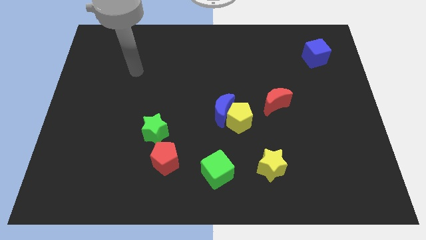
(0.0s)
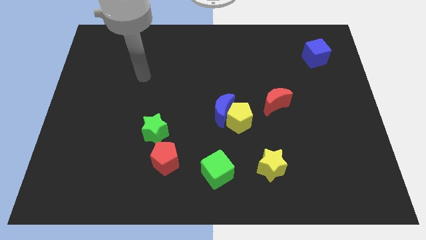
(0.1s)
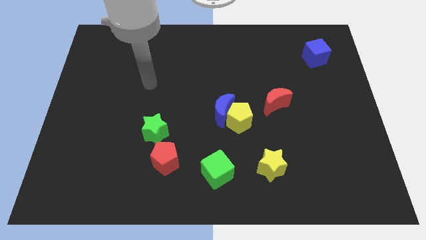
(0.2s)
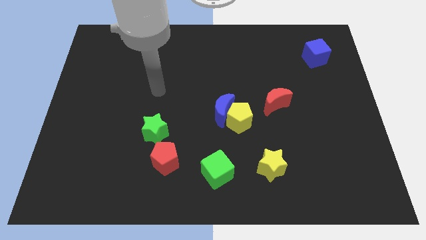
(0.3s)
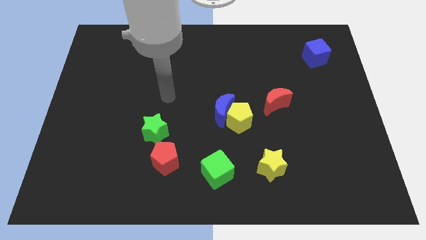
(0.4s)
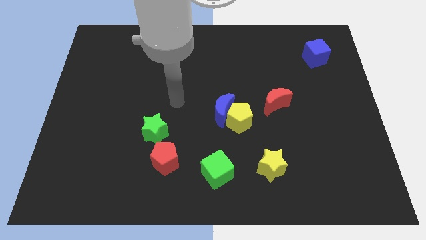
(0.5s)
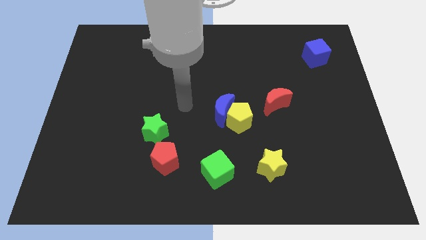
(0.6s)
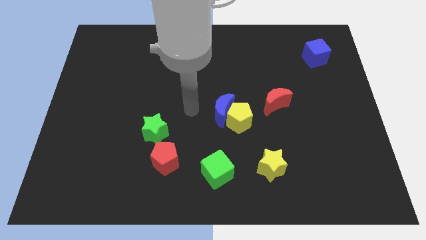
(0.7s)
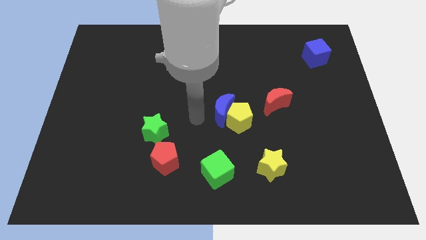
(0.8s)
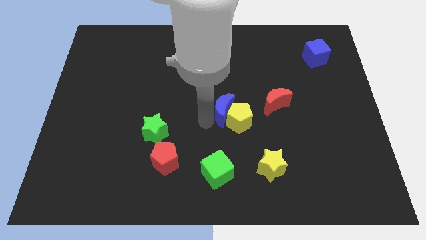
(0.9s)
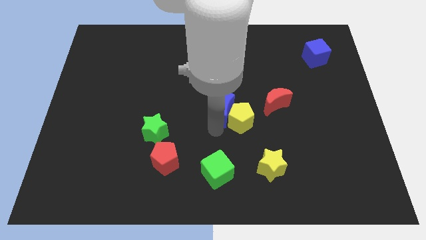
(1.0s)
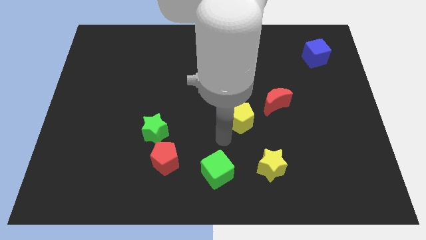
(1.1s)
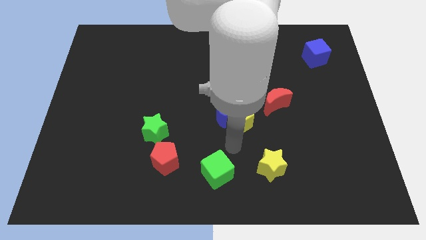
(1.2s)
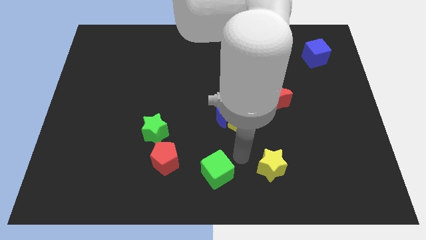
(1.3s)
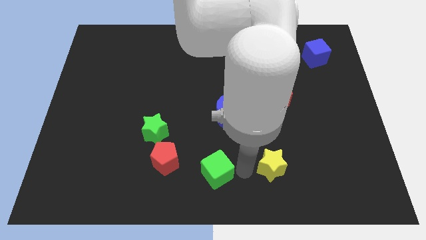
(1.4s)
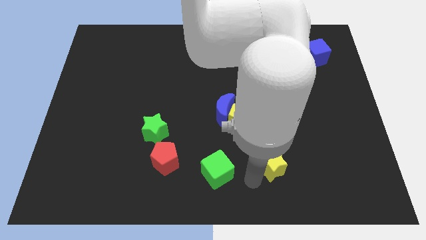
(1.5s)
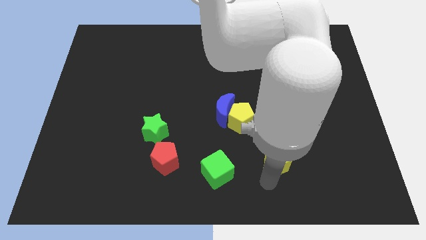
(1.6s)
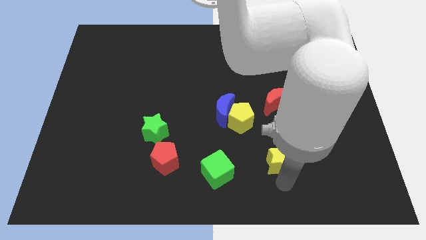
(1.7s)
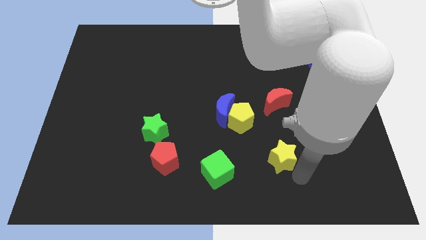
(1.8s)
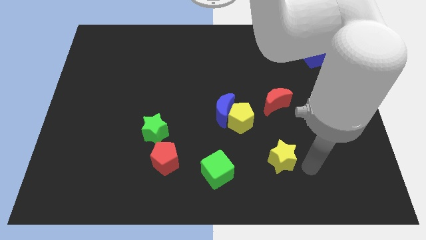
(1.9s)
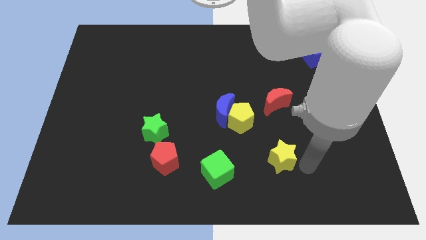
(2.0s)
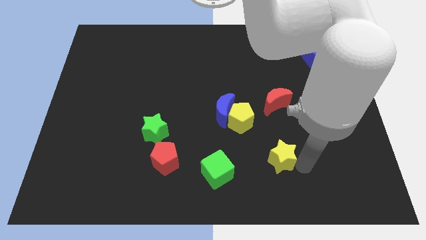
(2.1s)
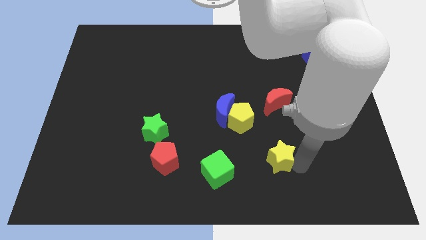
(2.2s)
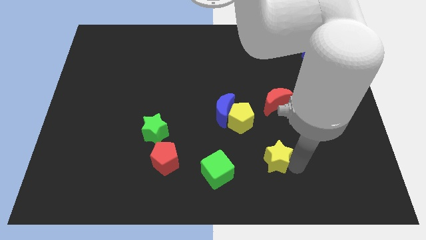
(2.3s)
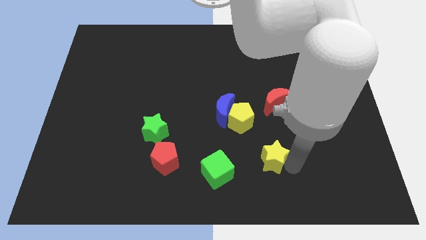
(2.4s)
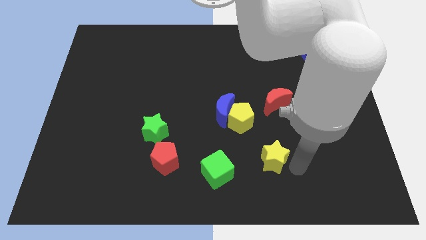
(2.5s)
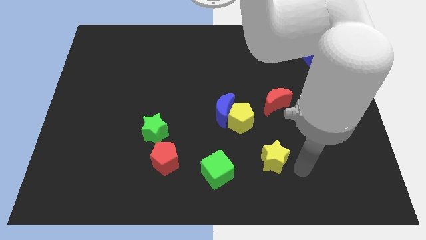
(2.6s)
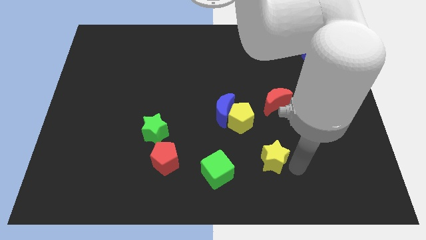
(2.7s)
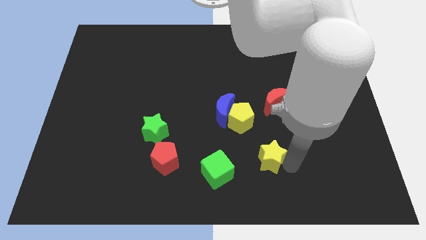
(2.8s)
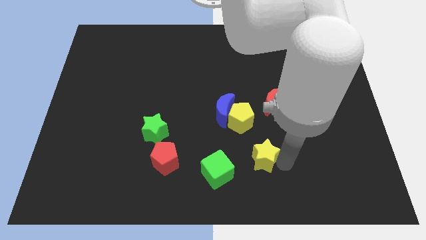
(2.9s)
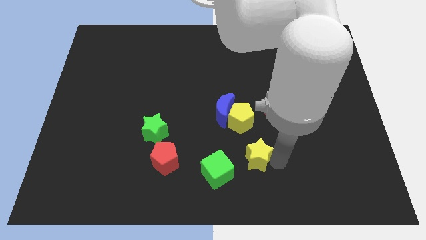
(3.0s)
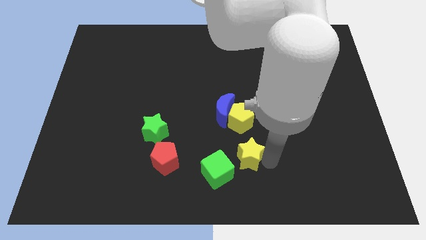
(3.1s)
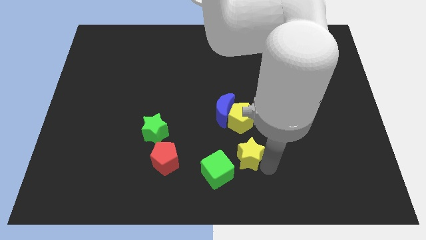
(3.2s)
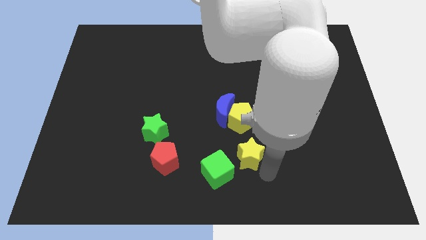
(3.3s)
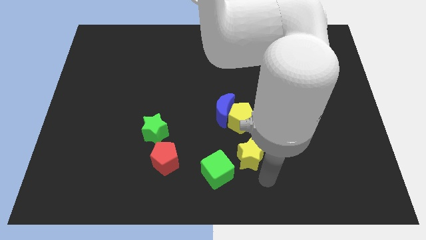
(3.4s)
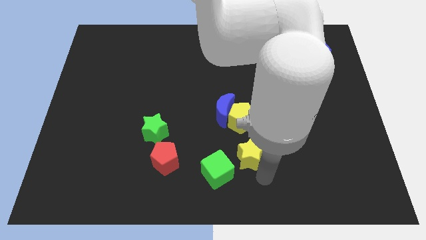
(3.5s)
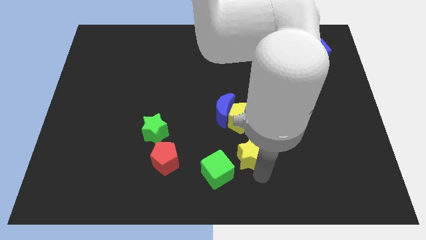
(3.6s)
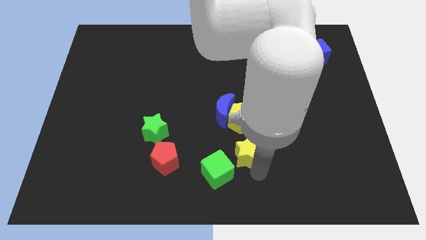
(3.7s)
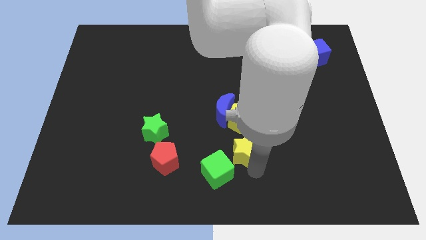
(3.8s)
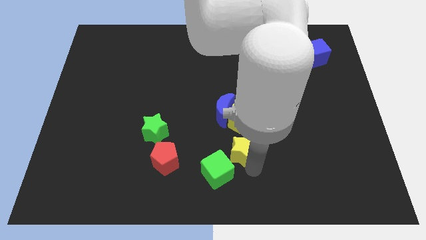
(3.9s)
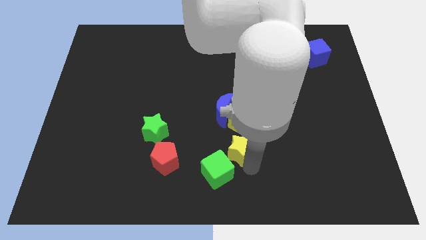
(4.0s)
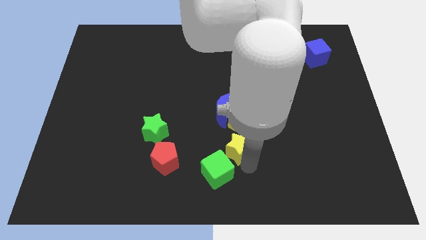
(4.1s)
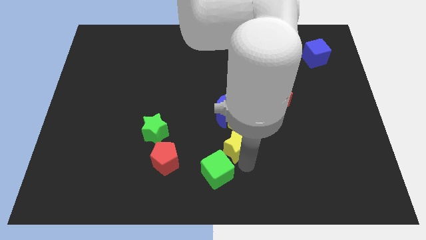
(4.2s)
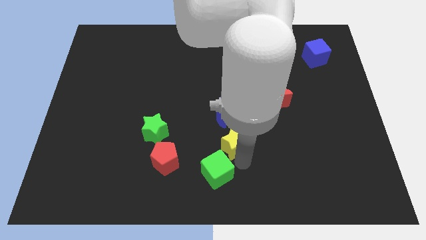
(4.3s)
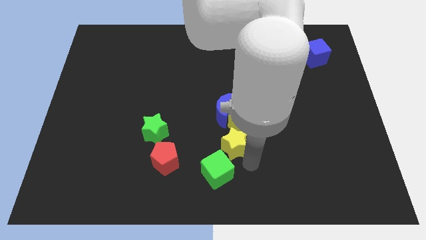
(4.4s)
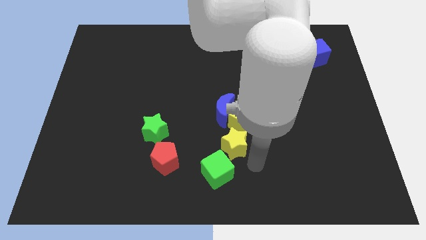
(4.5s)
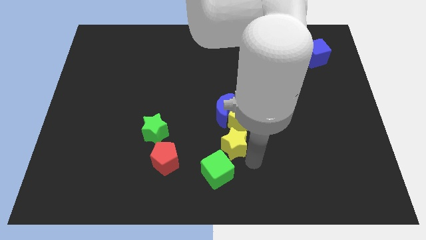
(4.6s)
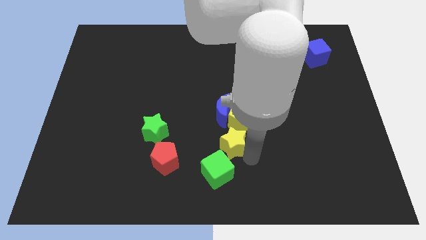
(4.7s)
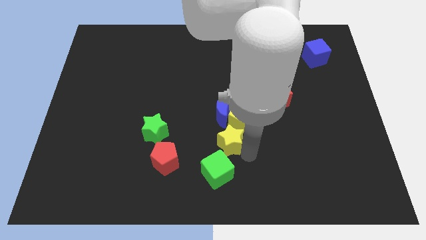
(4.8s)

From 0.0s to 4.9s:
push the yellow star to the middle of the board

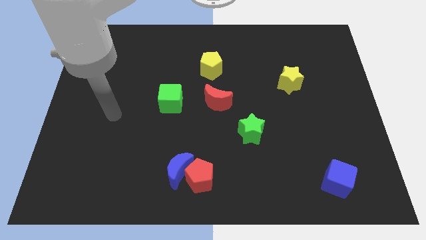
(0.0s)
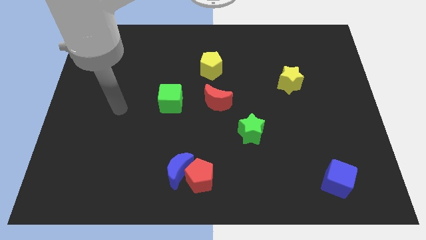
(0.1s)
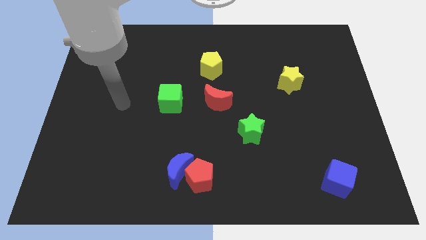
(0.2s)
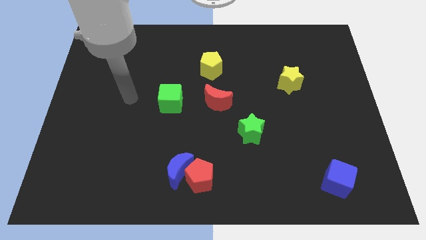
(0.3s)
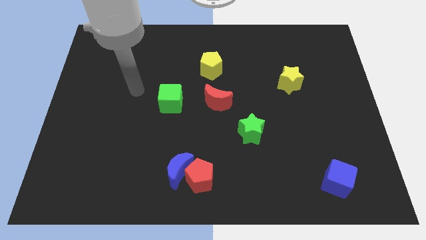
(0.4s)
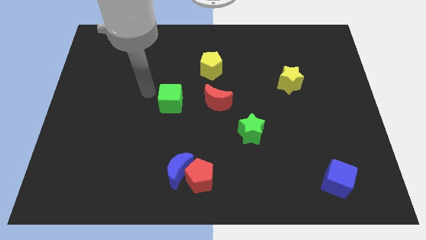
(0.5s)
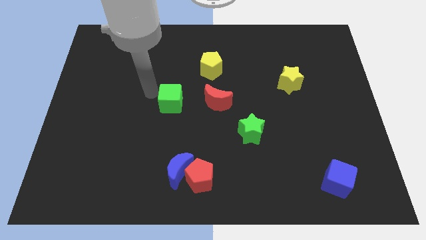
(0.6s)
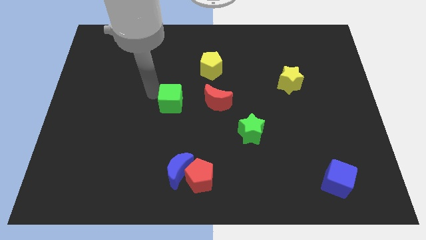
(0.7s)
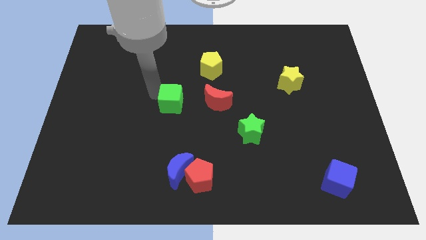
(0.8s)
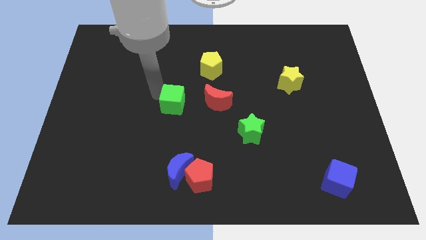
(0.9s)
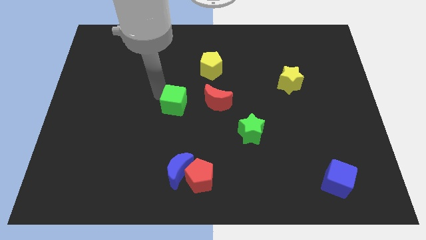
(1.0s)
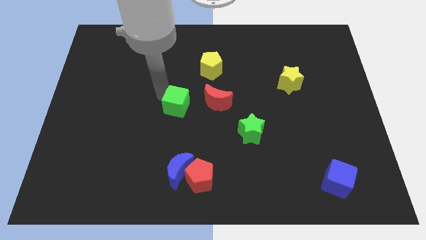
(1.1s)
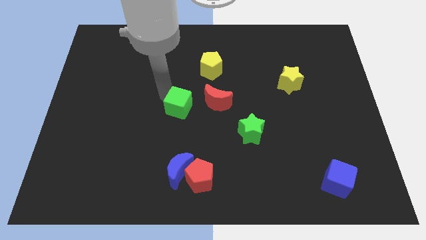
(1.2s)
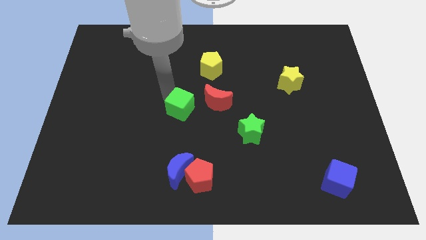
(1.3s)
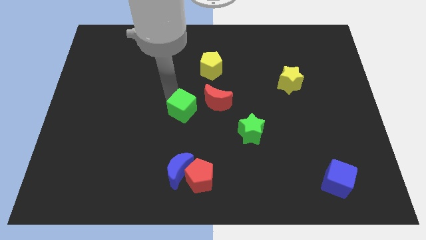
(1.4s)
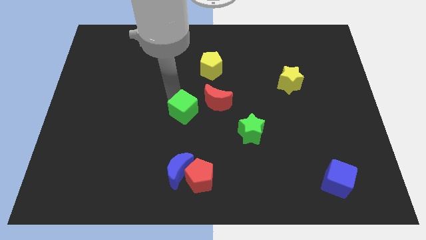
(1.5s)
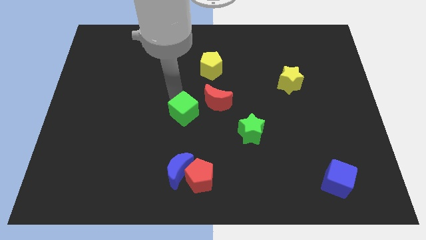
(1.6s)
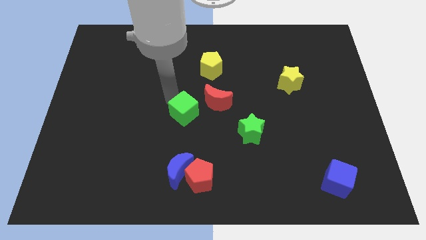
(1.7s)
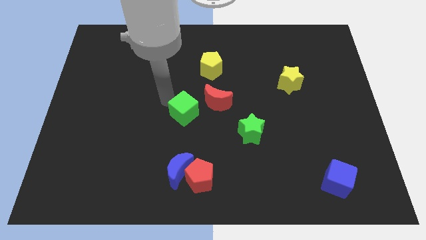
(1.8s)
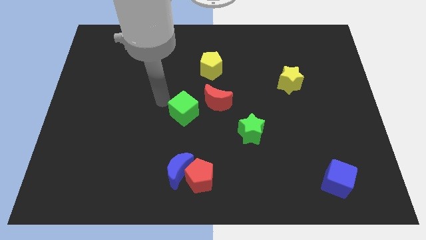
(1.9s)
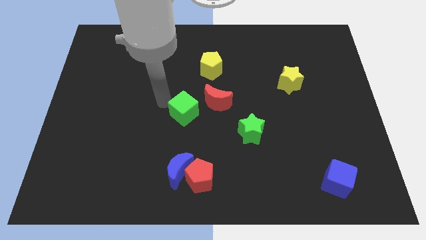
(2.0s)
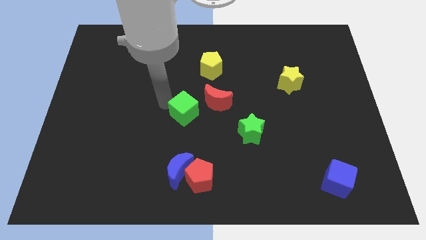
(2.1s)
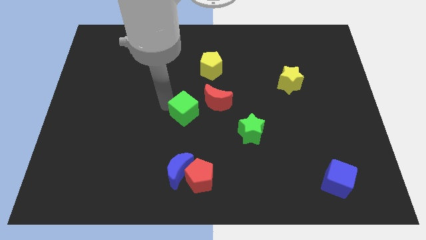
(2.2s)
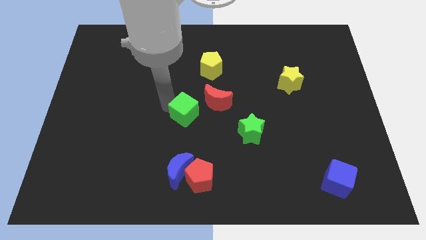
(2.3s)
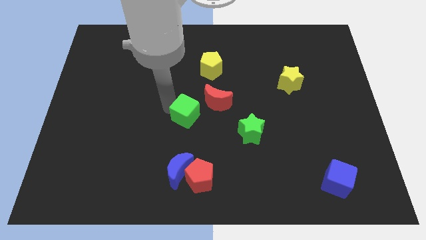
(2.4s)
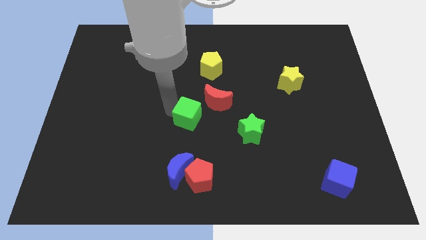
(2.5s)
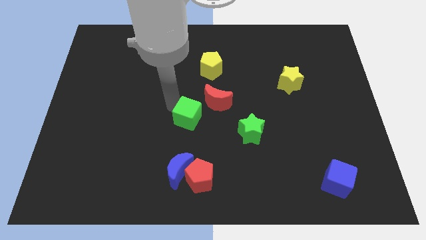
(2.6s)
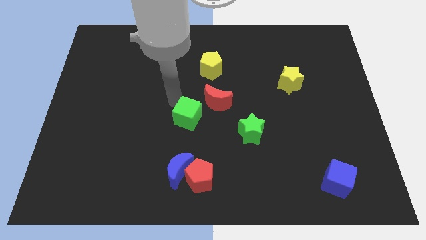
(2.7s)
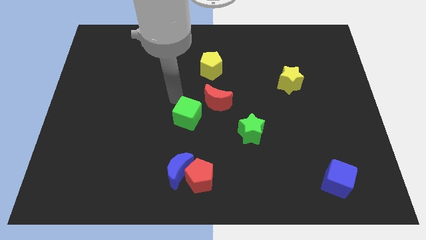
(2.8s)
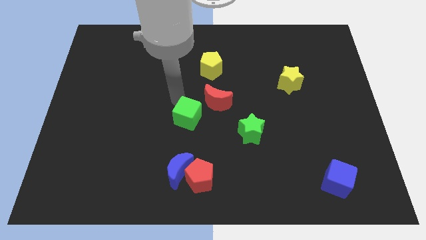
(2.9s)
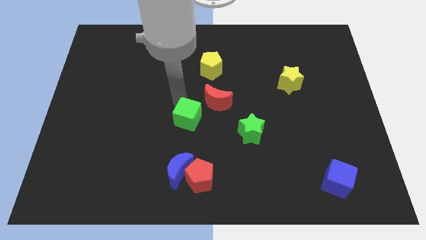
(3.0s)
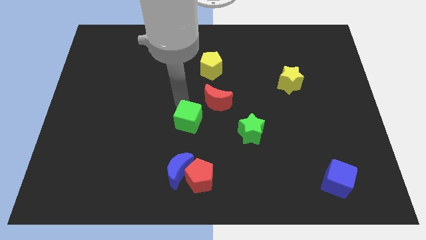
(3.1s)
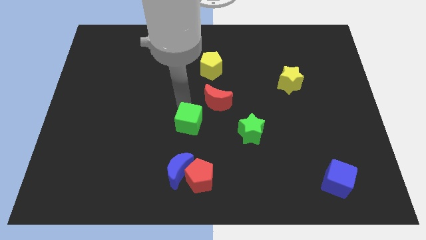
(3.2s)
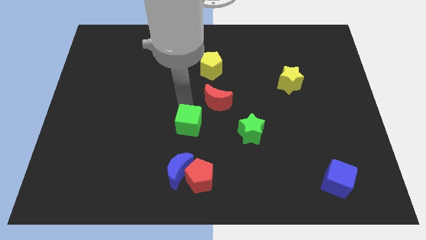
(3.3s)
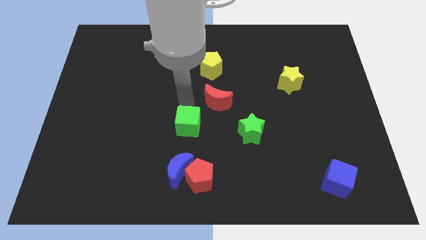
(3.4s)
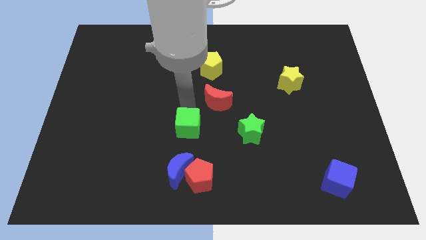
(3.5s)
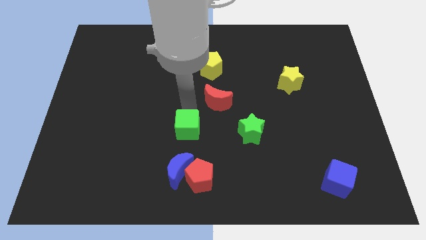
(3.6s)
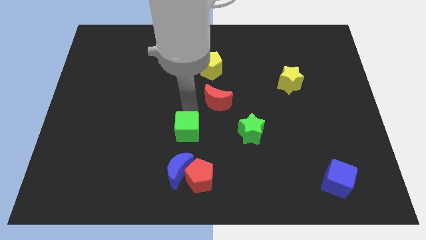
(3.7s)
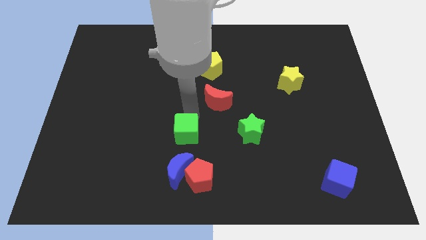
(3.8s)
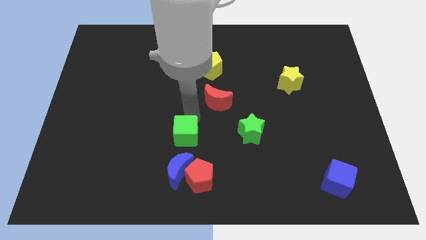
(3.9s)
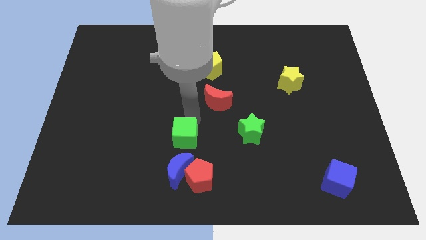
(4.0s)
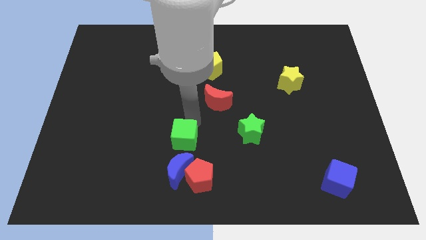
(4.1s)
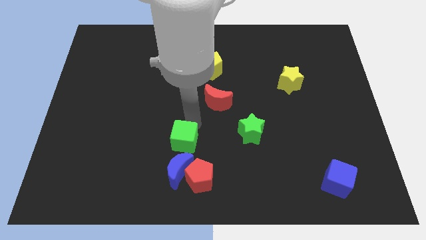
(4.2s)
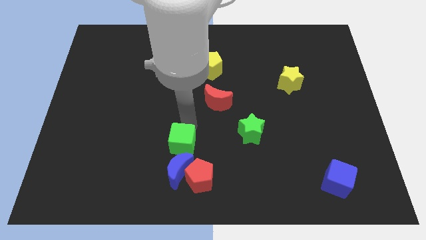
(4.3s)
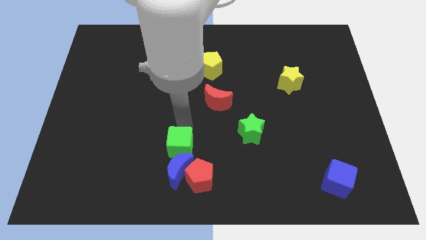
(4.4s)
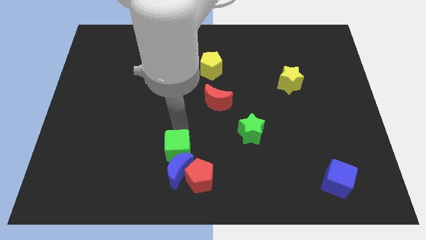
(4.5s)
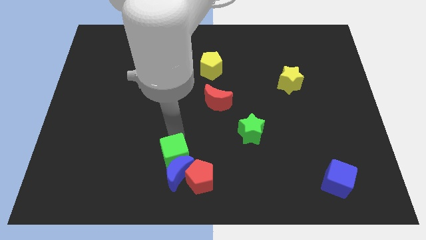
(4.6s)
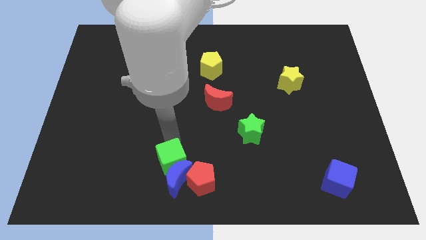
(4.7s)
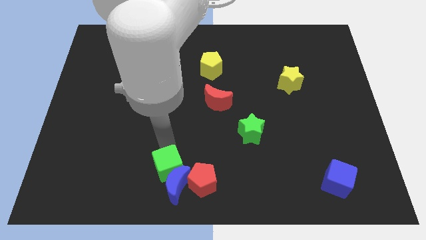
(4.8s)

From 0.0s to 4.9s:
push the green cube to the bottom
